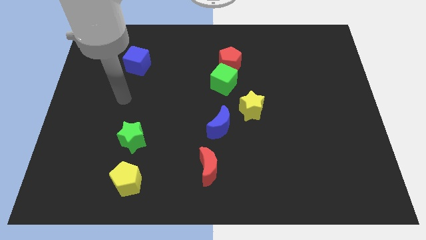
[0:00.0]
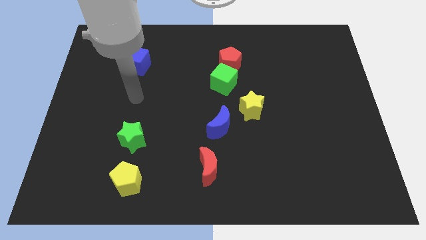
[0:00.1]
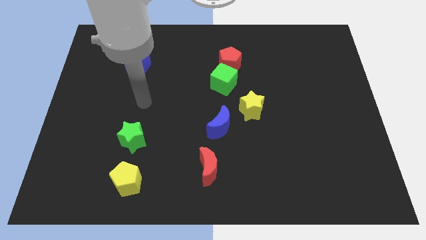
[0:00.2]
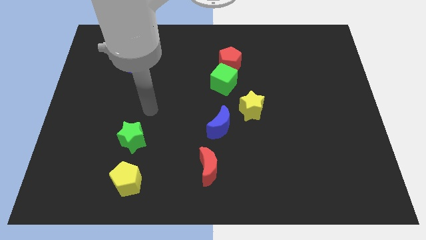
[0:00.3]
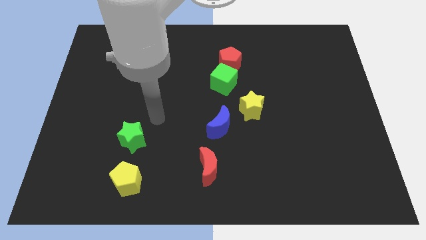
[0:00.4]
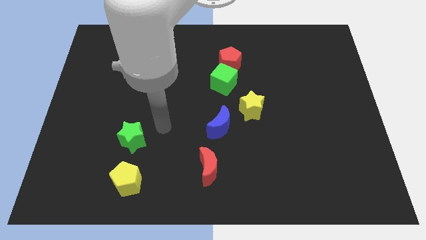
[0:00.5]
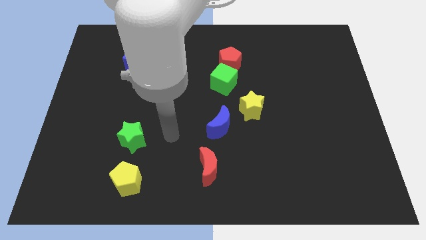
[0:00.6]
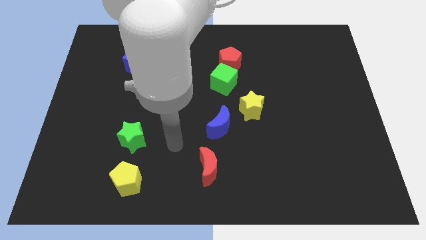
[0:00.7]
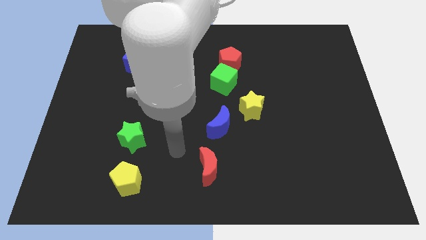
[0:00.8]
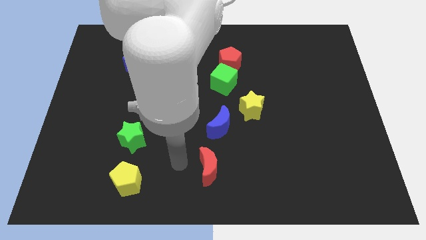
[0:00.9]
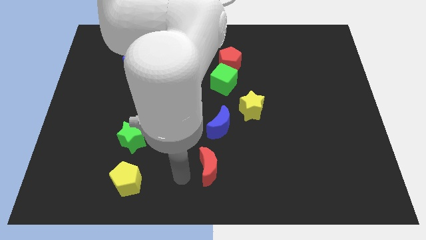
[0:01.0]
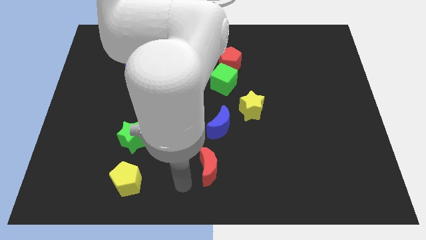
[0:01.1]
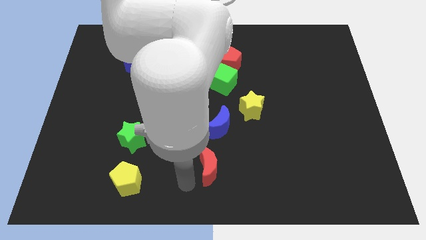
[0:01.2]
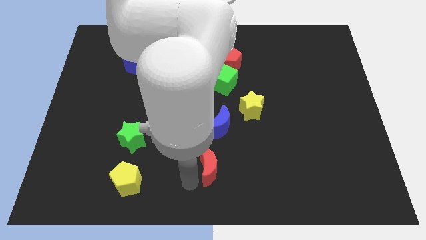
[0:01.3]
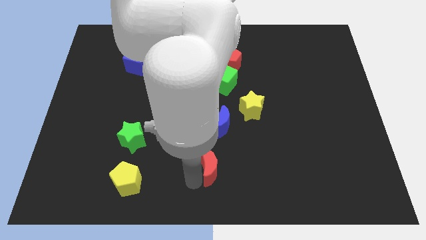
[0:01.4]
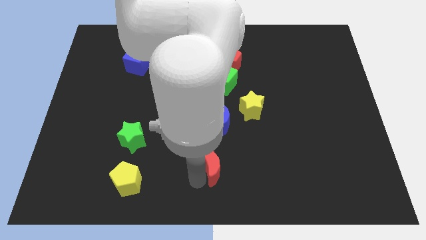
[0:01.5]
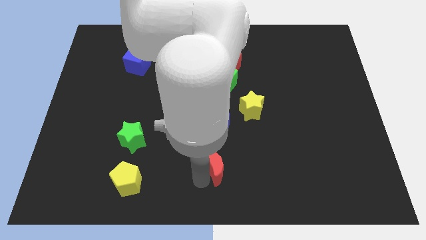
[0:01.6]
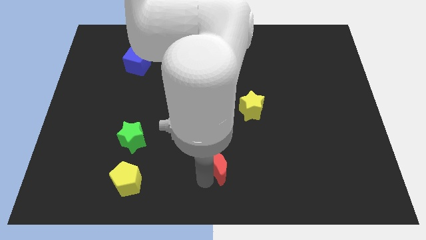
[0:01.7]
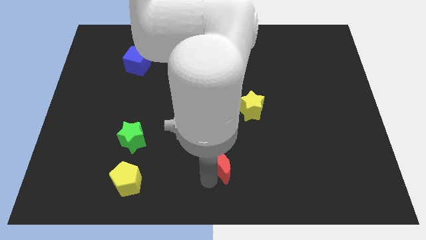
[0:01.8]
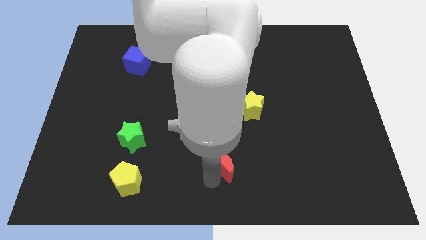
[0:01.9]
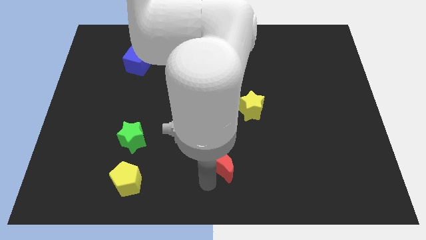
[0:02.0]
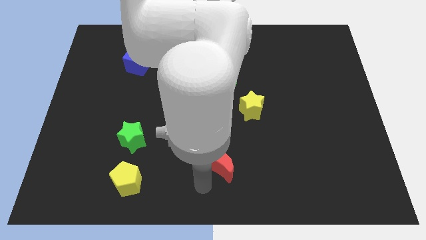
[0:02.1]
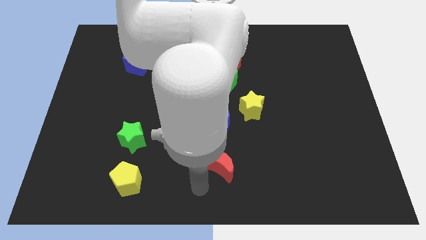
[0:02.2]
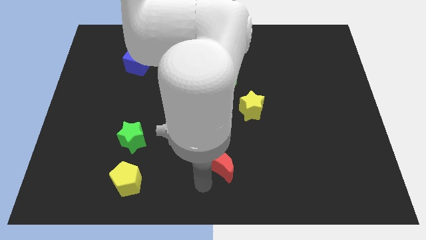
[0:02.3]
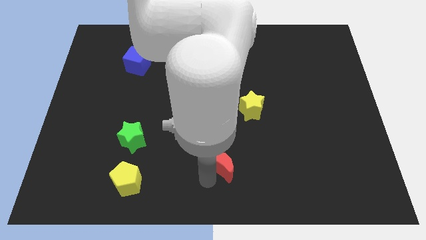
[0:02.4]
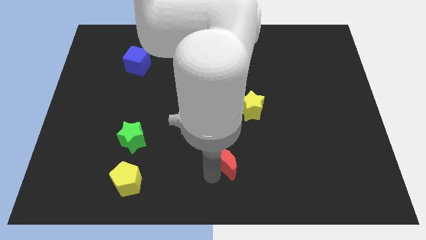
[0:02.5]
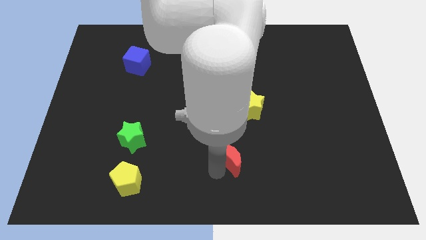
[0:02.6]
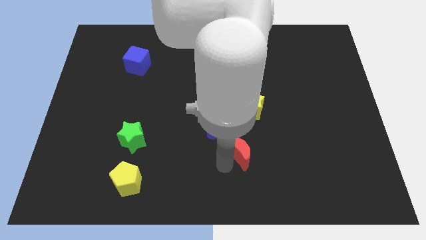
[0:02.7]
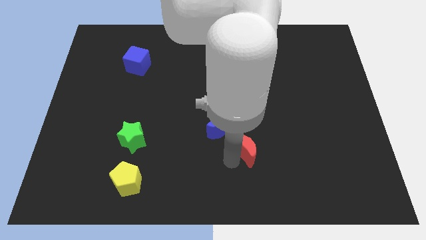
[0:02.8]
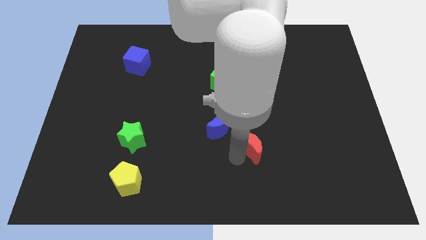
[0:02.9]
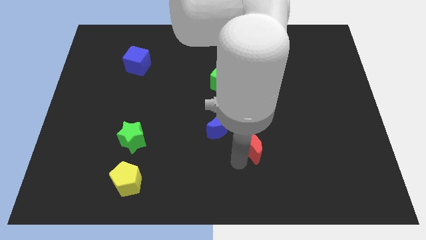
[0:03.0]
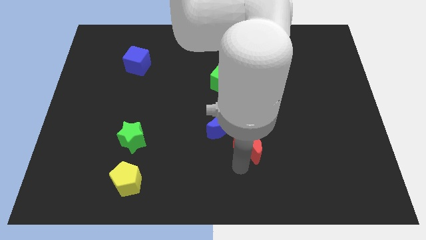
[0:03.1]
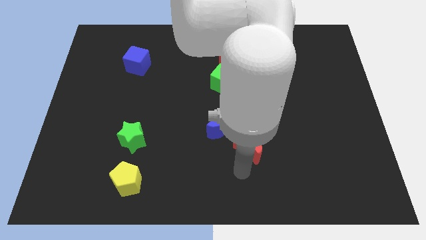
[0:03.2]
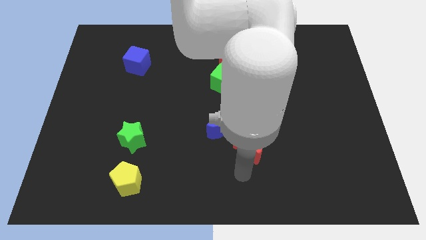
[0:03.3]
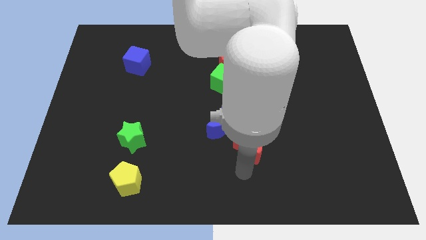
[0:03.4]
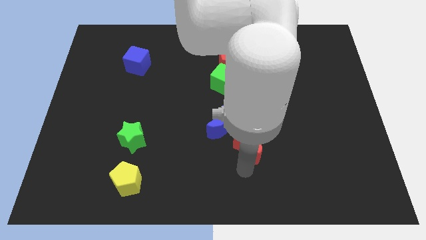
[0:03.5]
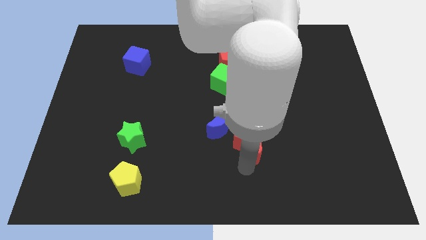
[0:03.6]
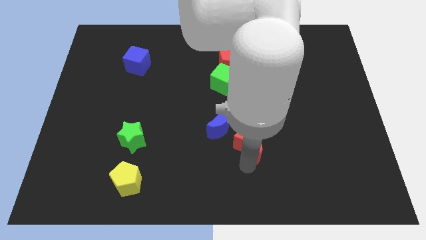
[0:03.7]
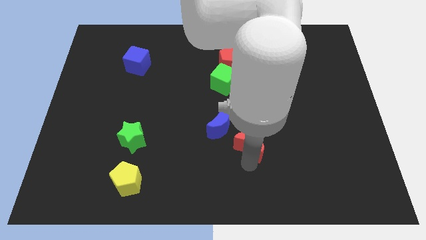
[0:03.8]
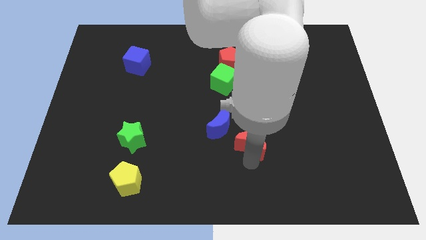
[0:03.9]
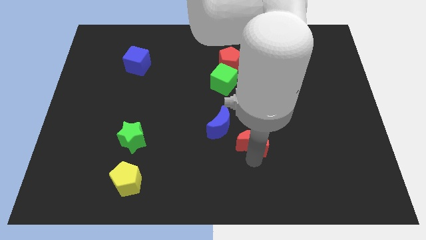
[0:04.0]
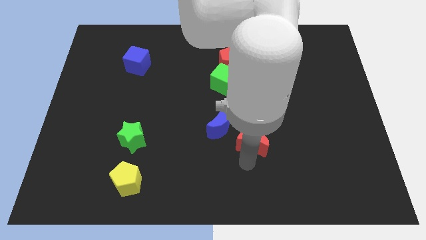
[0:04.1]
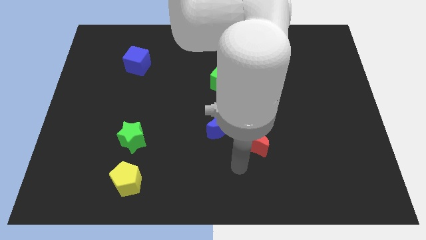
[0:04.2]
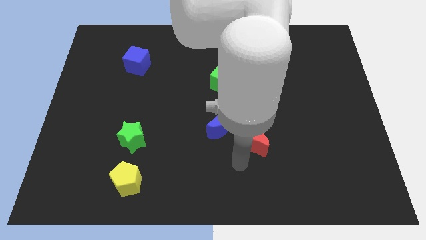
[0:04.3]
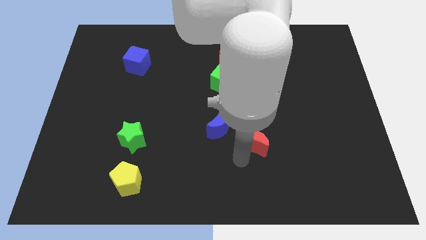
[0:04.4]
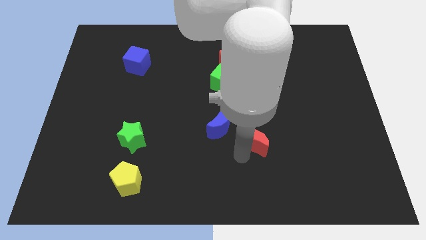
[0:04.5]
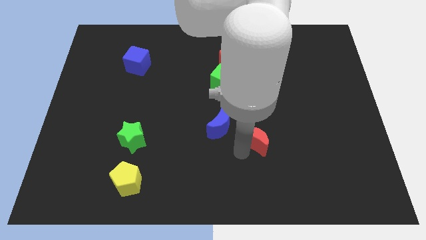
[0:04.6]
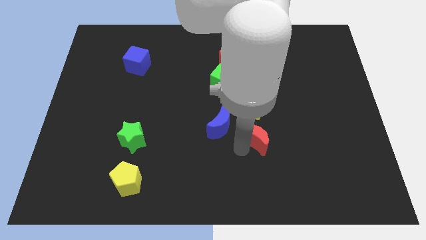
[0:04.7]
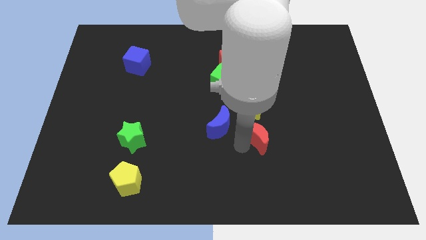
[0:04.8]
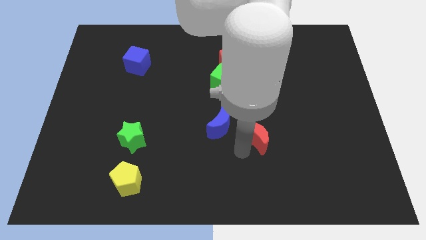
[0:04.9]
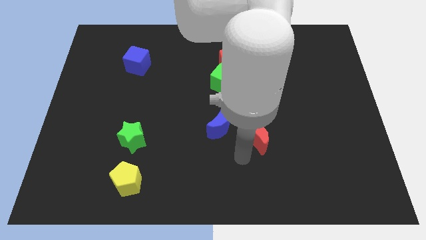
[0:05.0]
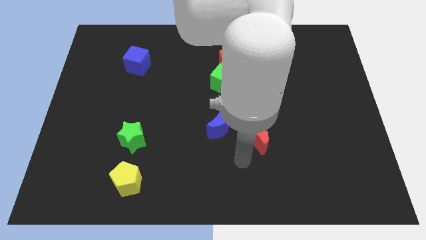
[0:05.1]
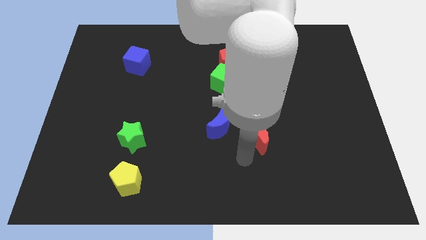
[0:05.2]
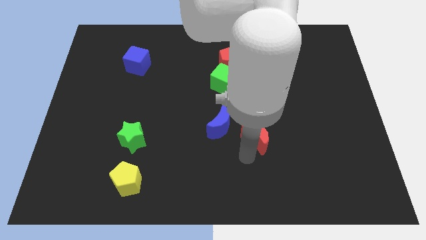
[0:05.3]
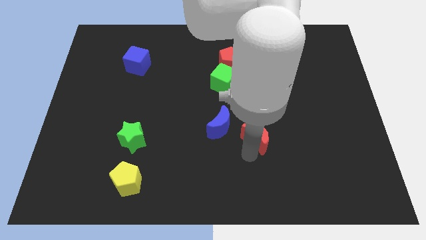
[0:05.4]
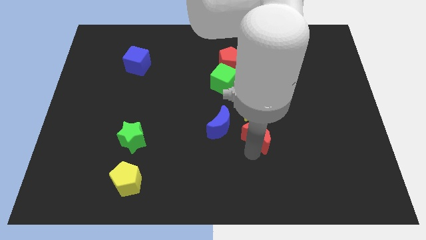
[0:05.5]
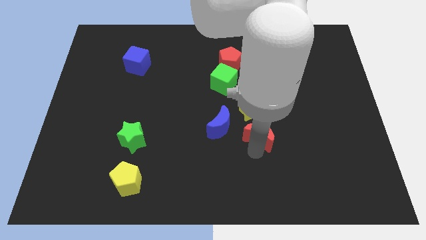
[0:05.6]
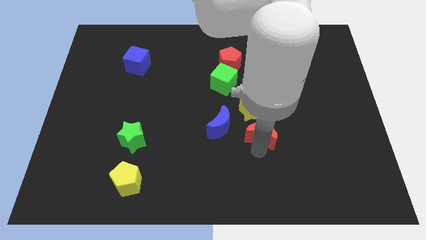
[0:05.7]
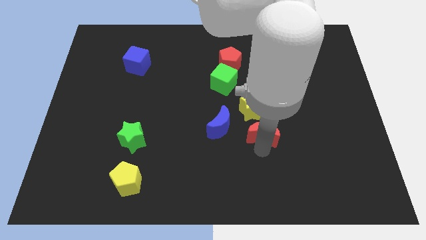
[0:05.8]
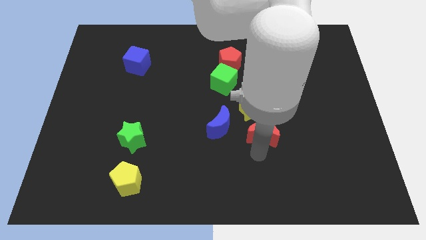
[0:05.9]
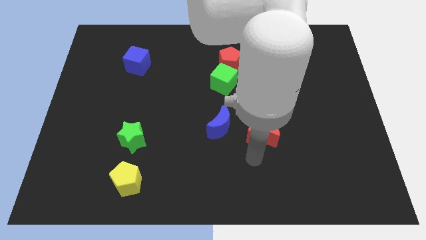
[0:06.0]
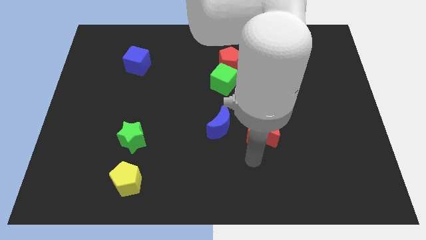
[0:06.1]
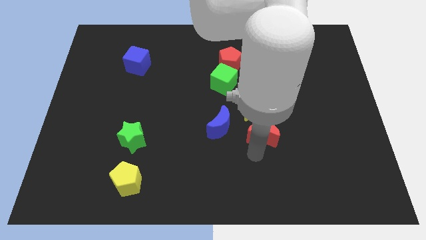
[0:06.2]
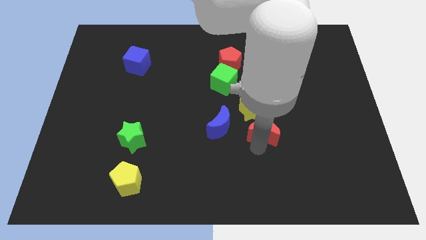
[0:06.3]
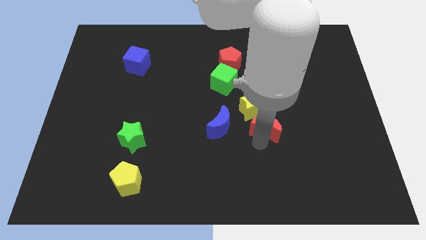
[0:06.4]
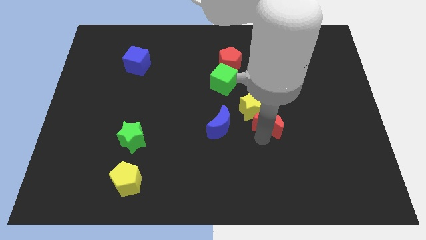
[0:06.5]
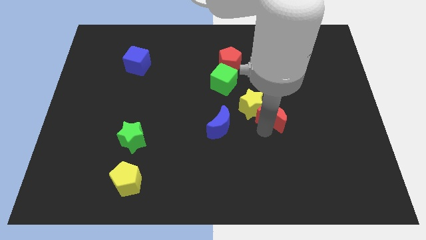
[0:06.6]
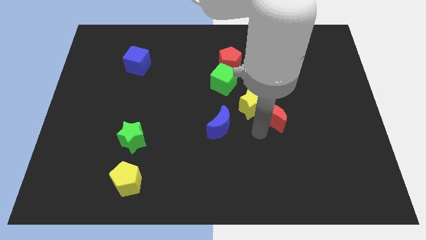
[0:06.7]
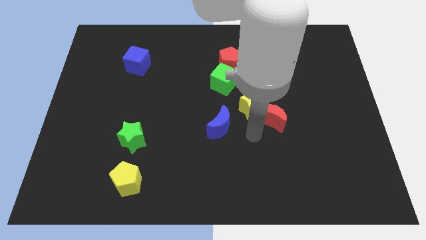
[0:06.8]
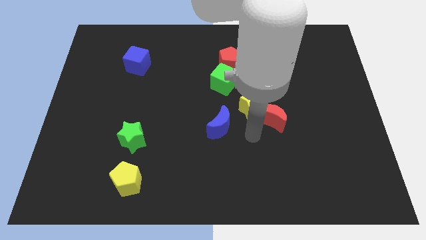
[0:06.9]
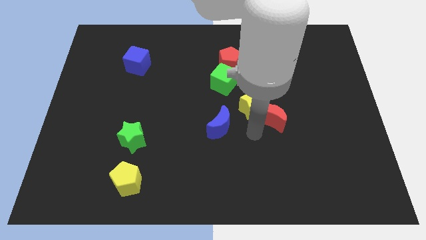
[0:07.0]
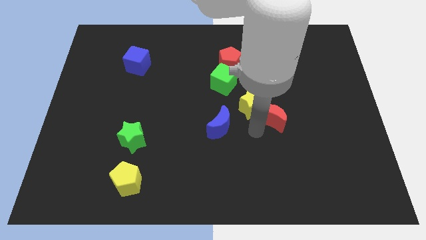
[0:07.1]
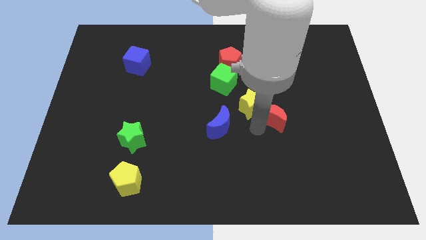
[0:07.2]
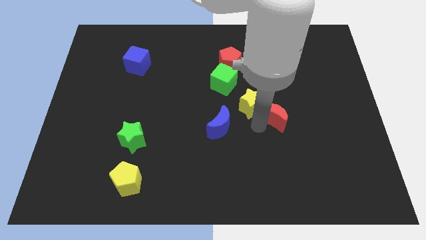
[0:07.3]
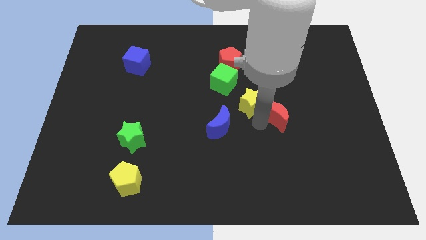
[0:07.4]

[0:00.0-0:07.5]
slide the red moon up and then right

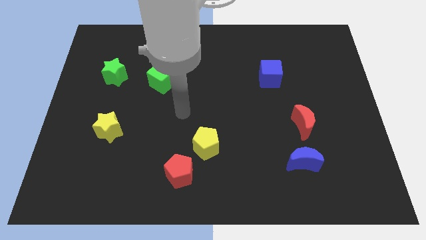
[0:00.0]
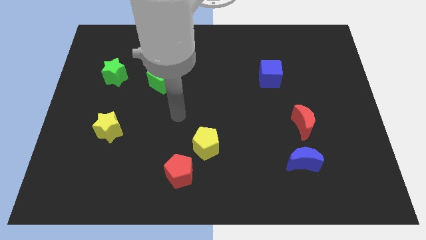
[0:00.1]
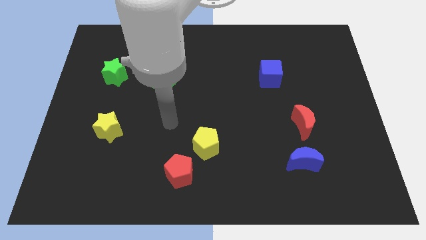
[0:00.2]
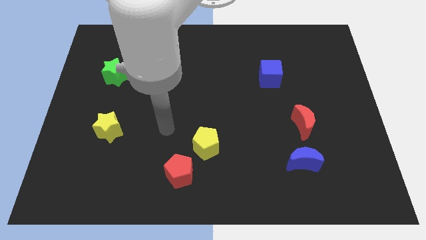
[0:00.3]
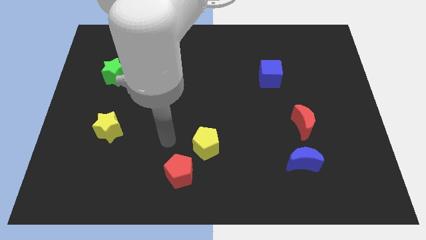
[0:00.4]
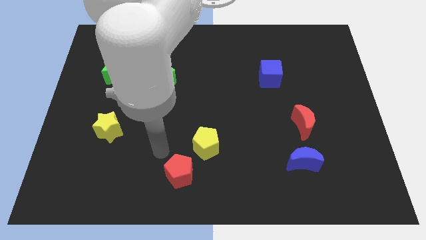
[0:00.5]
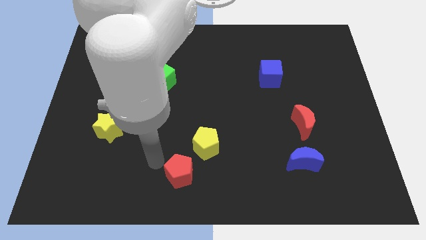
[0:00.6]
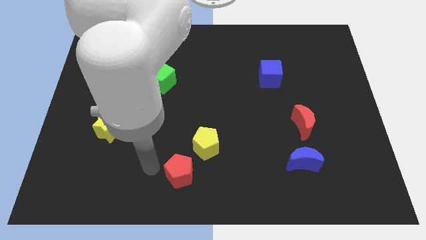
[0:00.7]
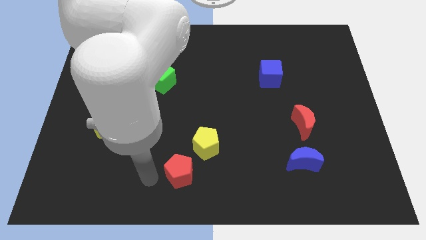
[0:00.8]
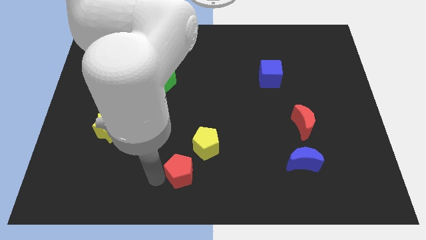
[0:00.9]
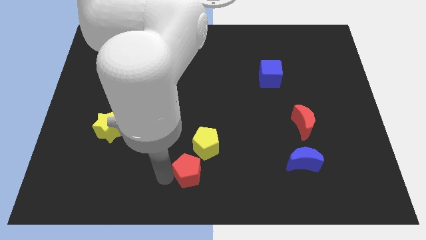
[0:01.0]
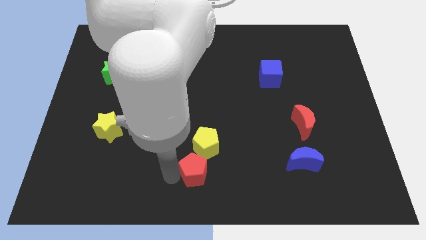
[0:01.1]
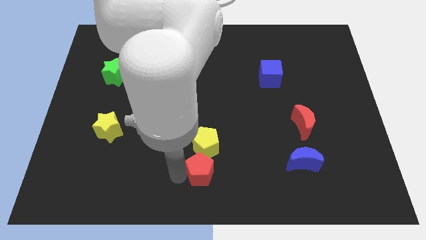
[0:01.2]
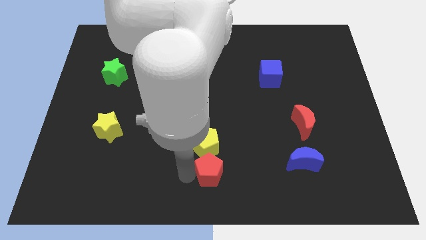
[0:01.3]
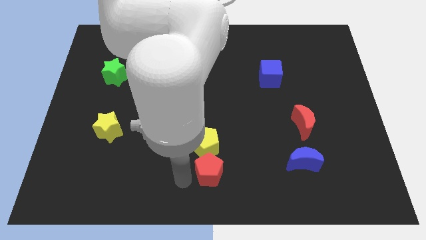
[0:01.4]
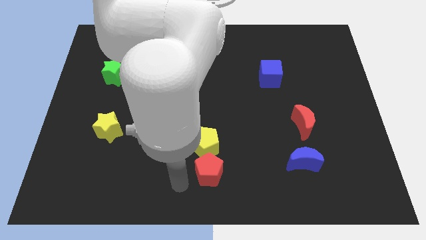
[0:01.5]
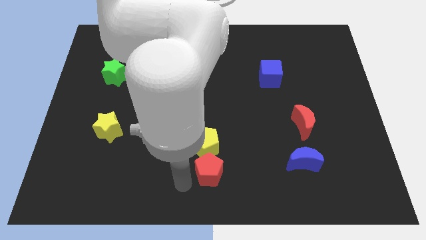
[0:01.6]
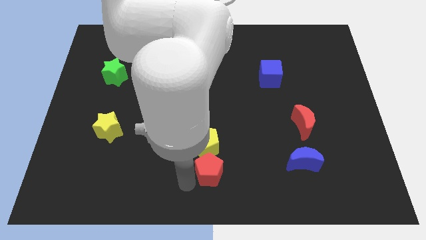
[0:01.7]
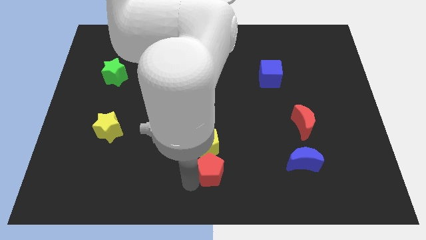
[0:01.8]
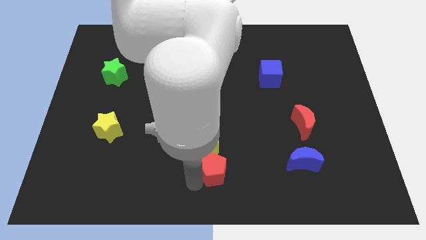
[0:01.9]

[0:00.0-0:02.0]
slide the red pentagon to the right somewhat
